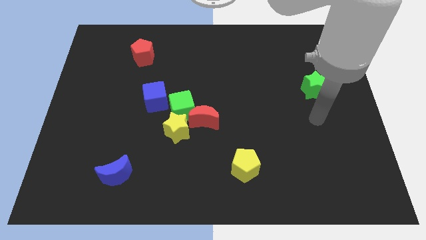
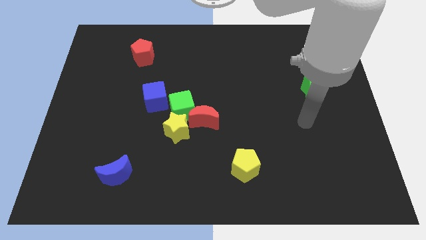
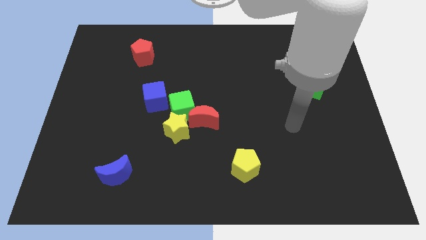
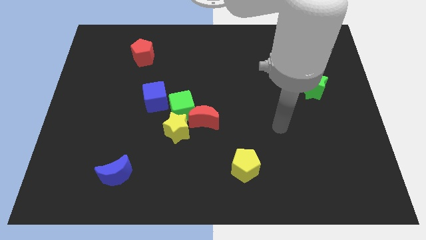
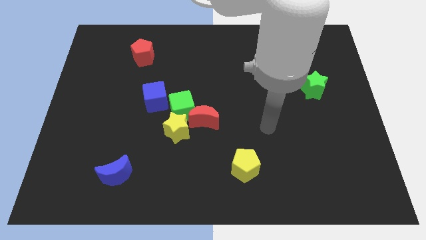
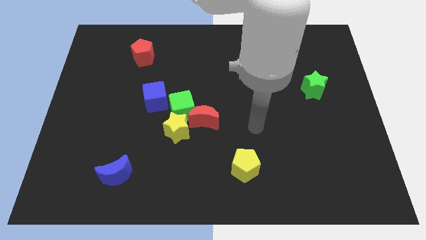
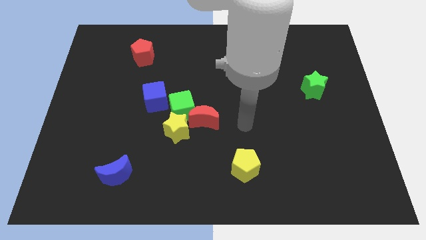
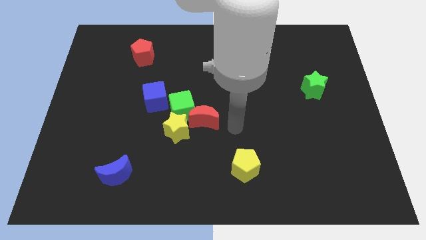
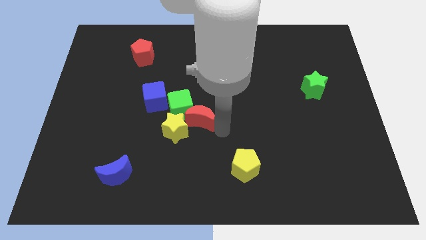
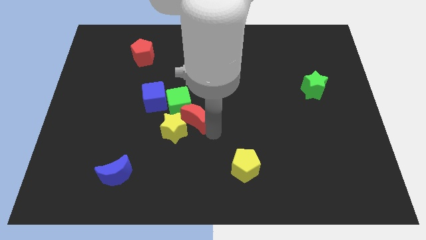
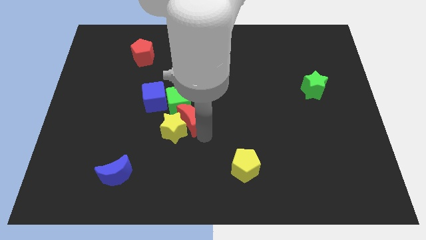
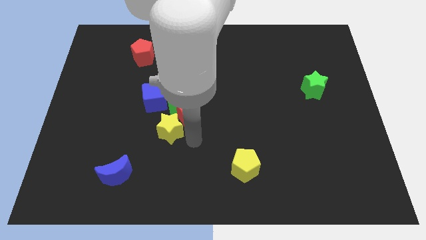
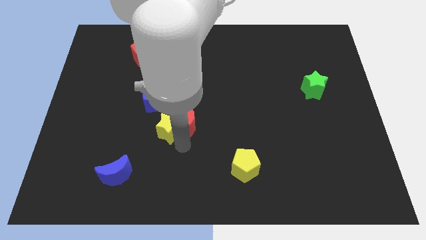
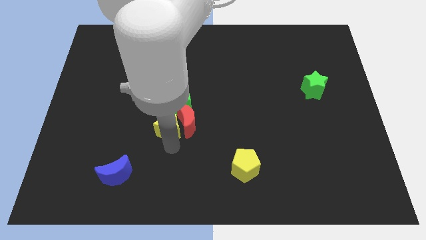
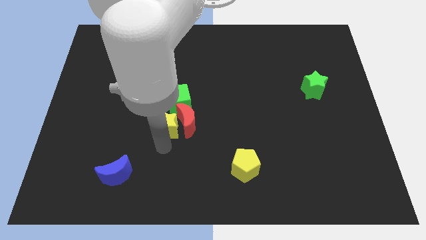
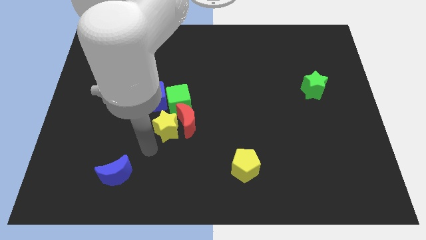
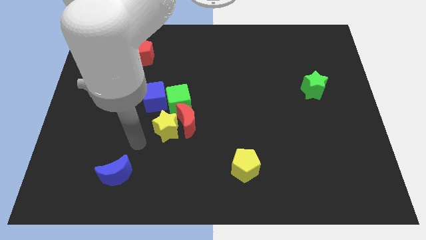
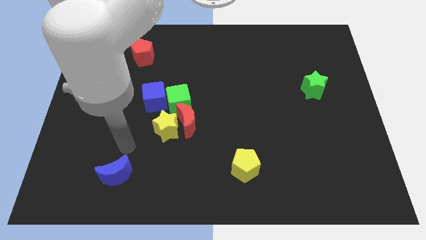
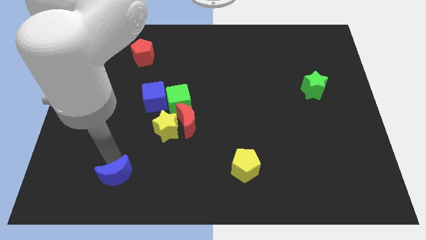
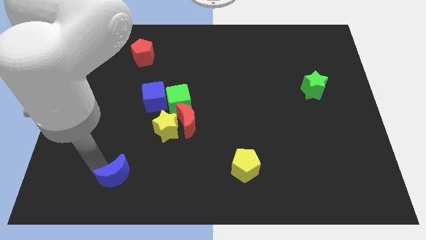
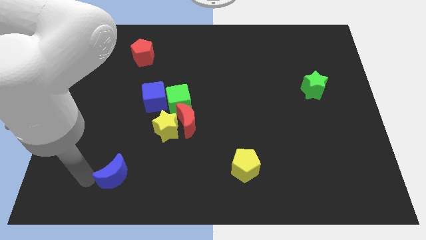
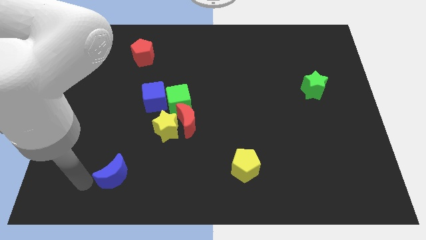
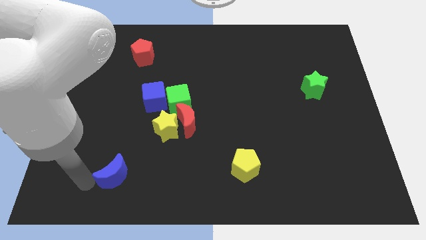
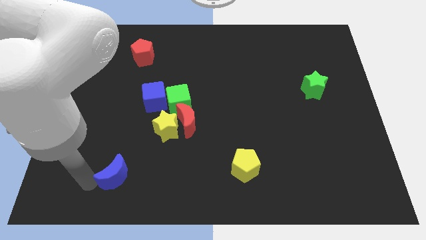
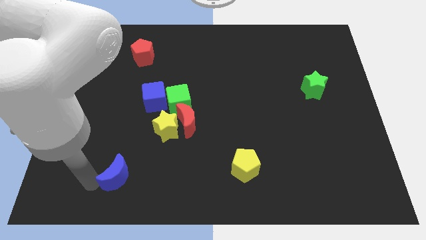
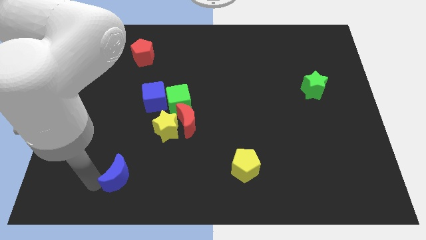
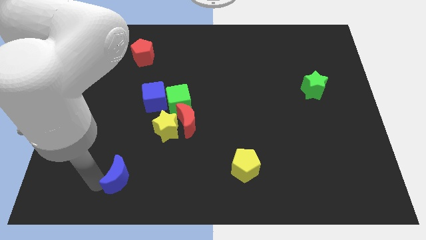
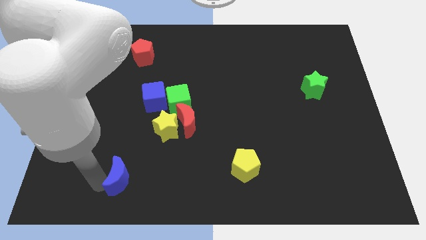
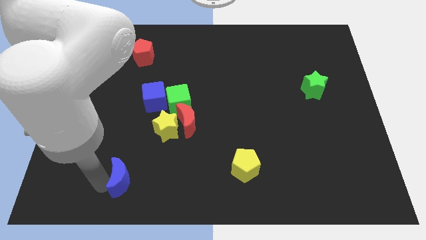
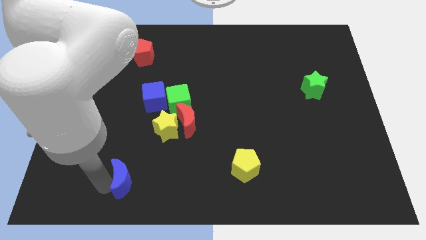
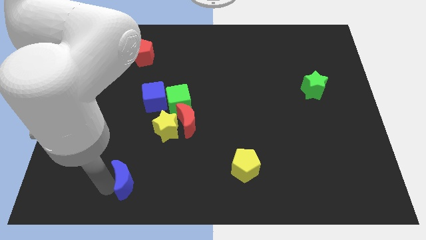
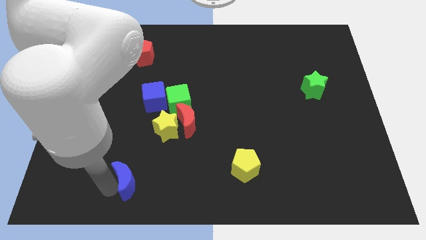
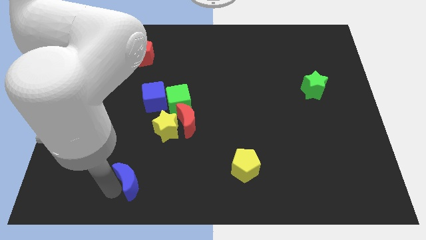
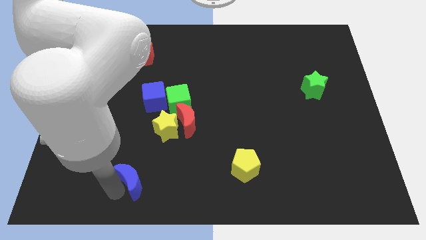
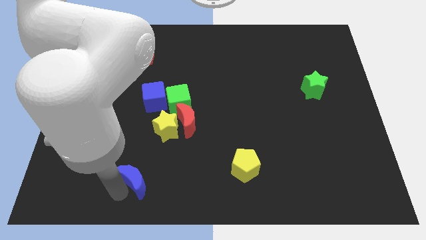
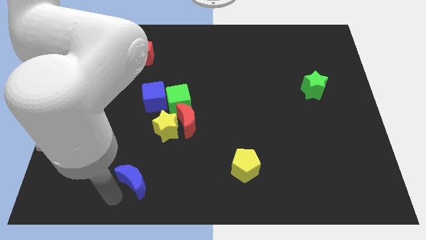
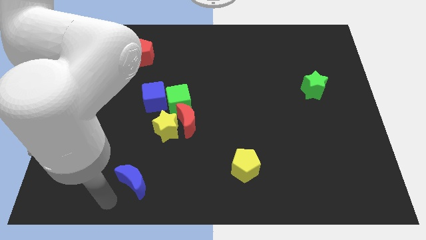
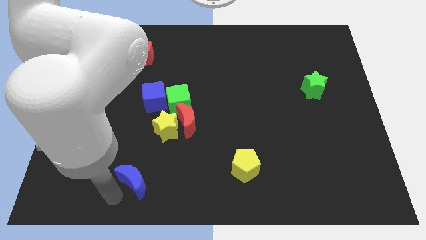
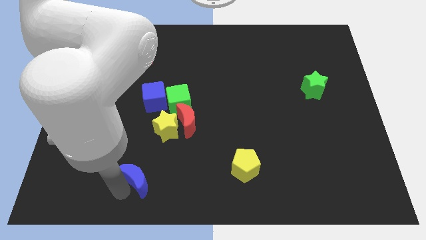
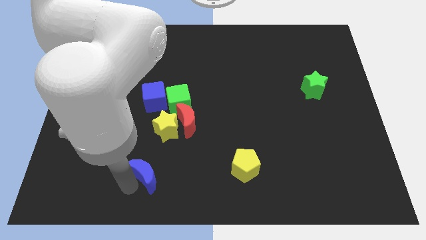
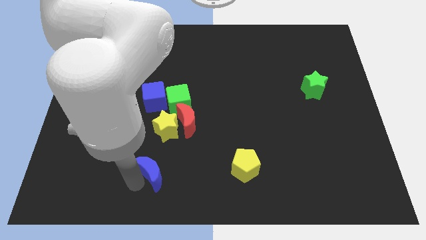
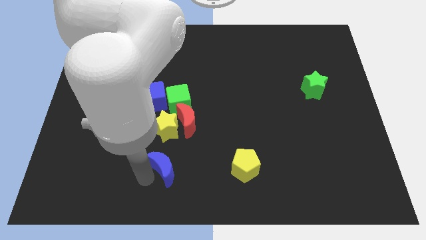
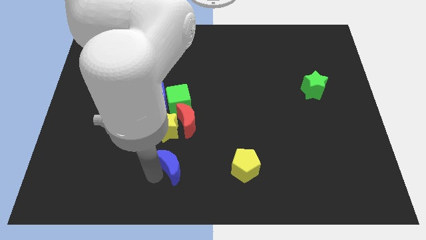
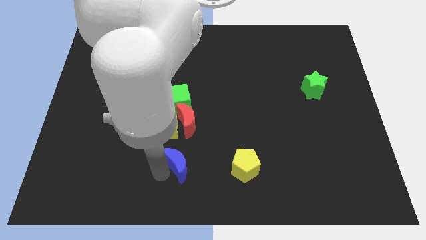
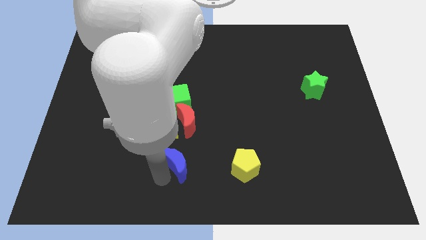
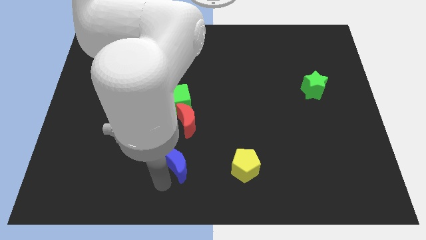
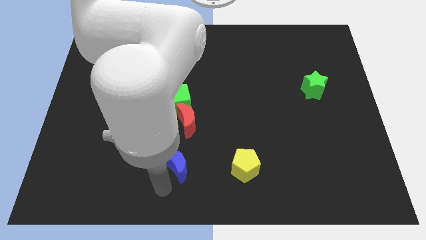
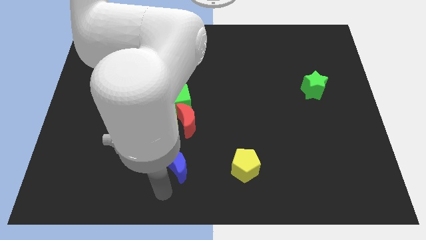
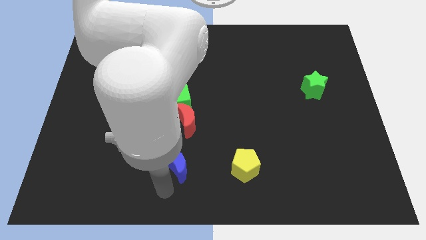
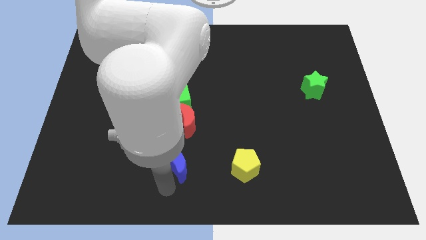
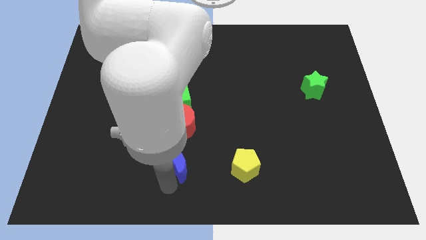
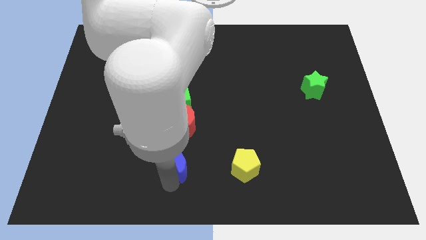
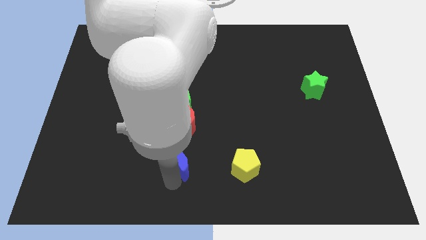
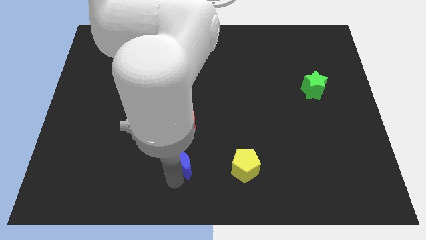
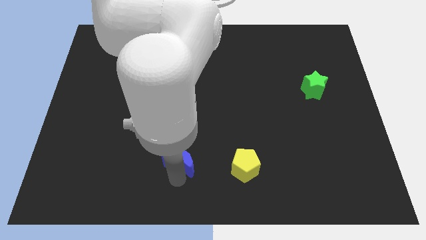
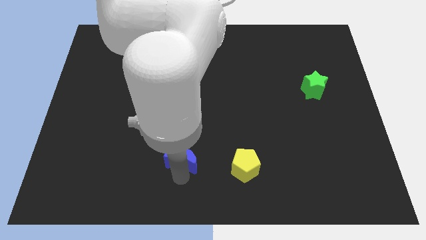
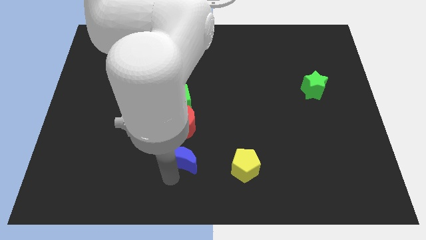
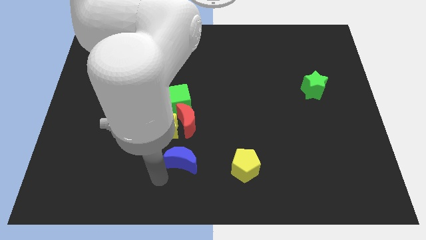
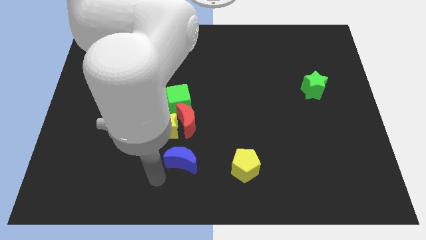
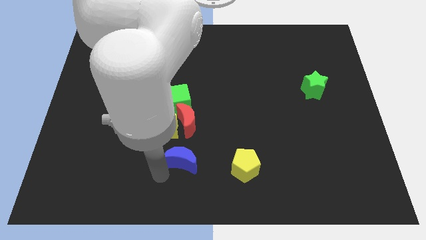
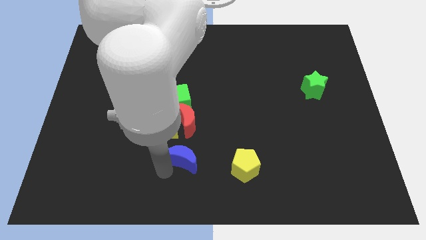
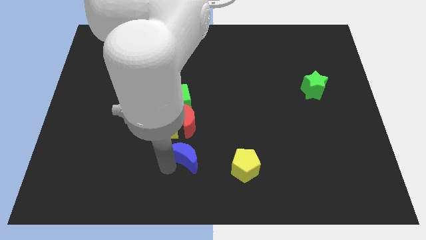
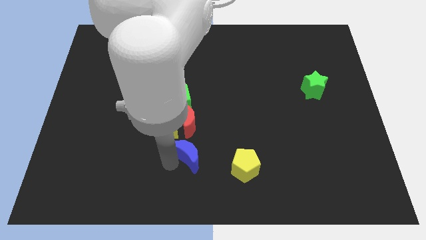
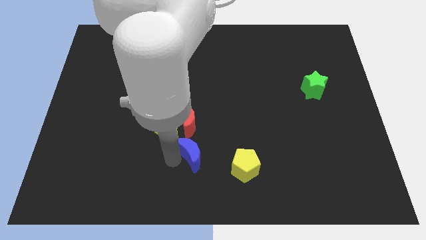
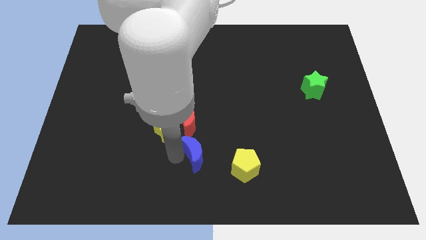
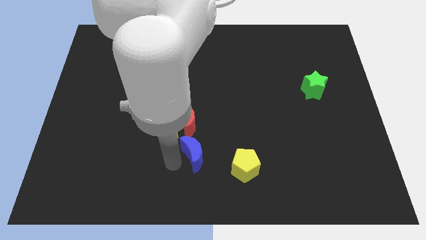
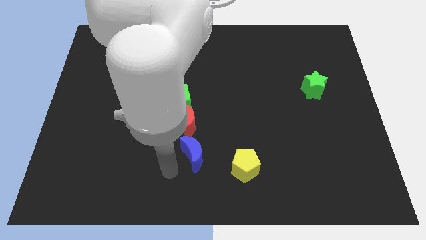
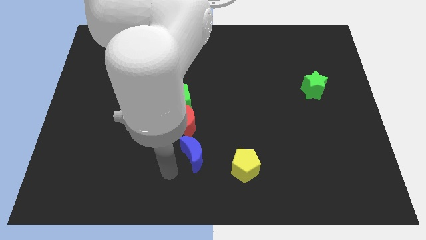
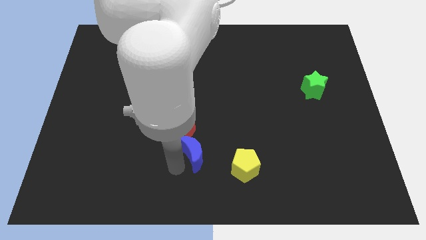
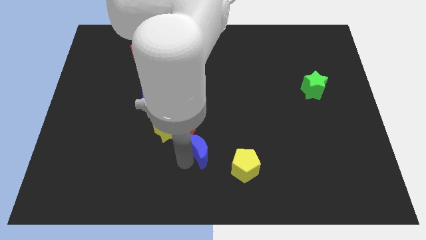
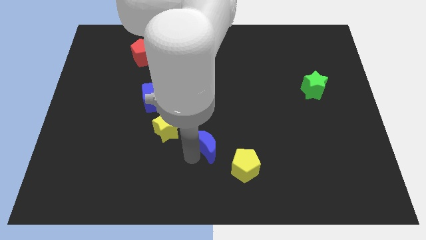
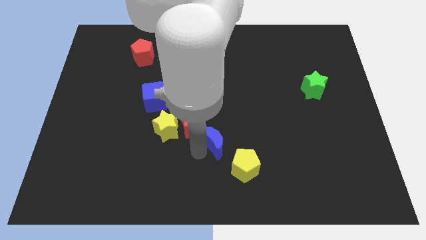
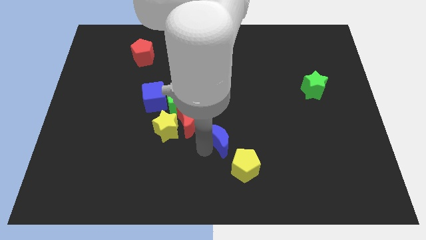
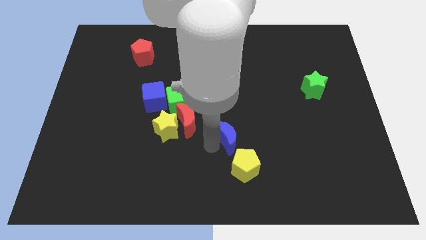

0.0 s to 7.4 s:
move the blue moon above the yellow pentagon
